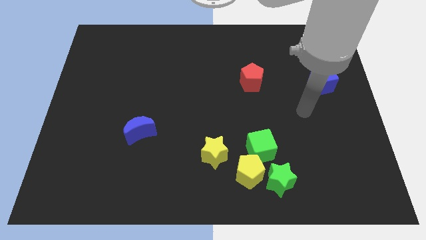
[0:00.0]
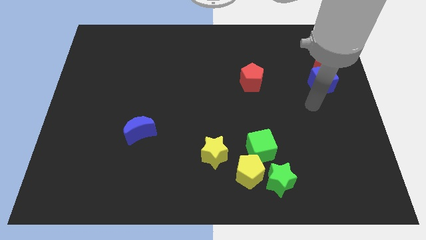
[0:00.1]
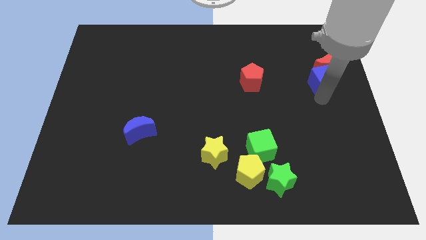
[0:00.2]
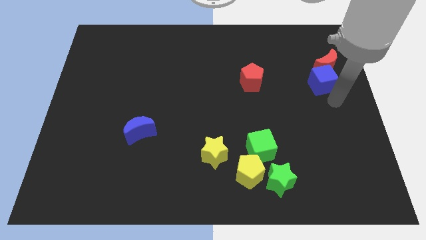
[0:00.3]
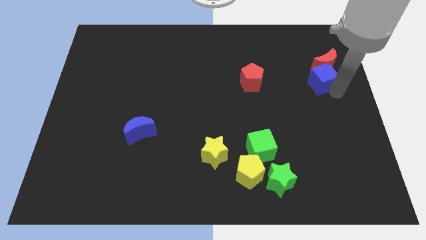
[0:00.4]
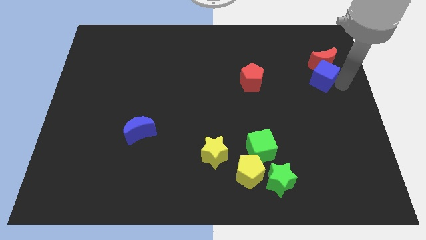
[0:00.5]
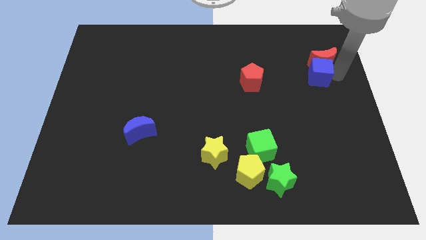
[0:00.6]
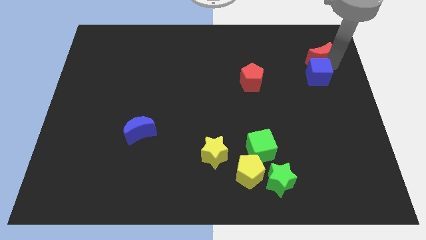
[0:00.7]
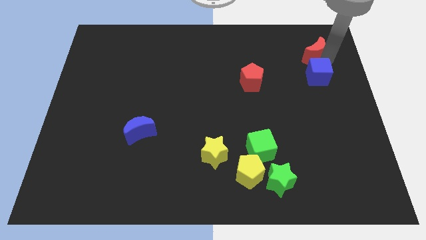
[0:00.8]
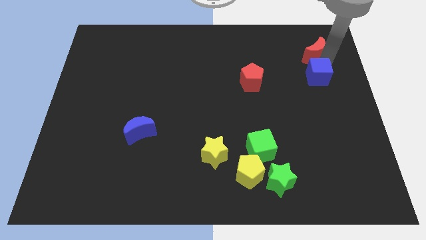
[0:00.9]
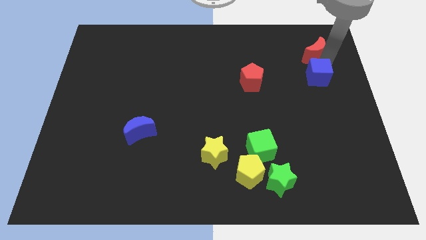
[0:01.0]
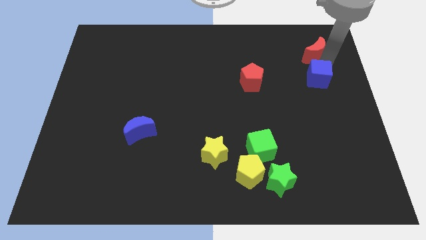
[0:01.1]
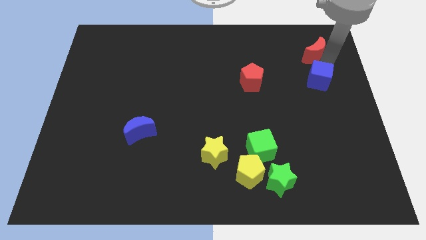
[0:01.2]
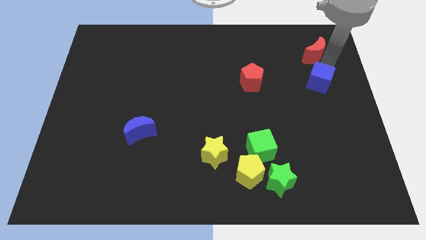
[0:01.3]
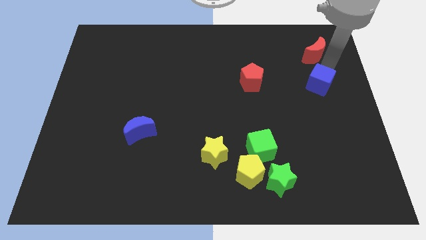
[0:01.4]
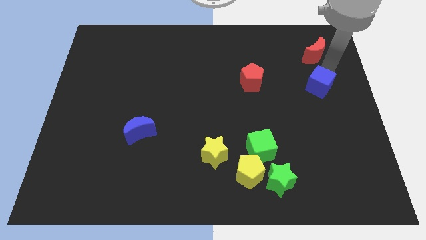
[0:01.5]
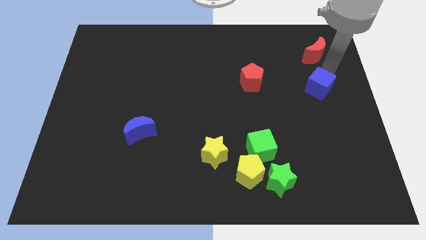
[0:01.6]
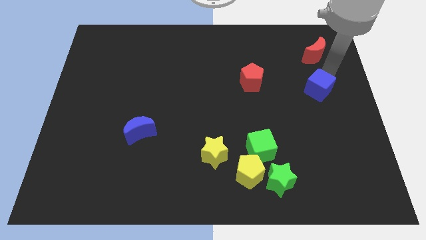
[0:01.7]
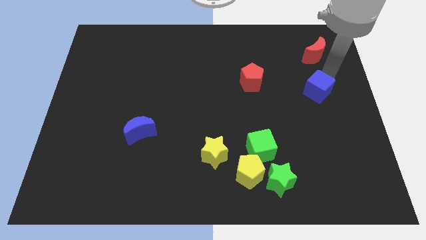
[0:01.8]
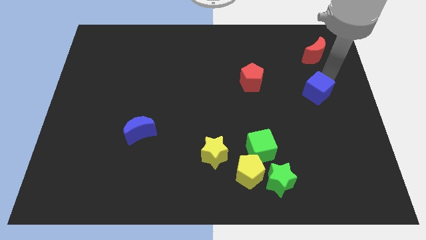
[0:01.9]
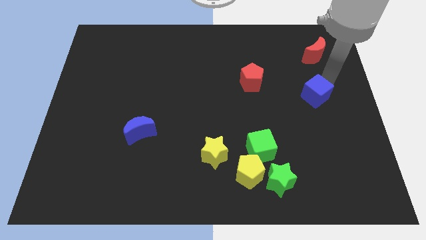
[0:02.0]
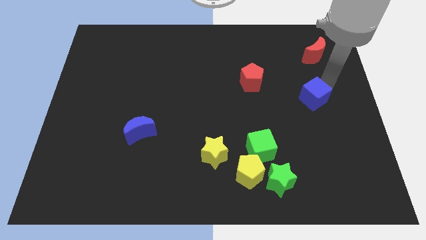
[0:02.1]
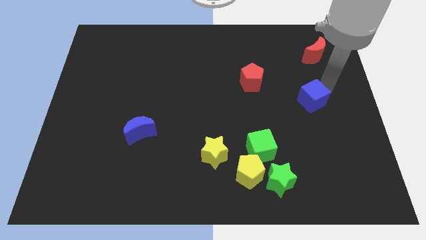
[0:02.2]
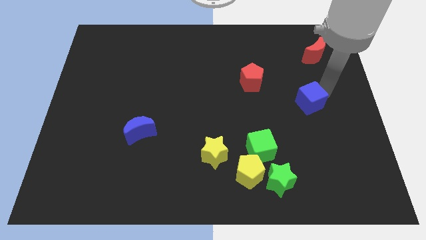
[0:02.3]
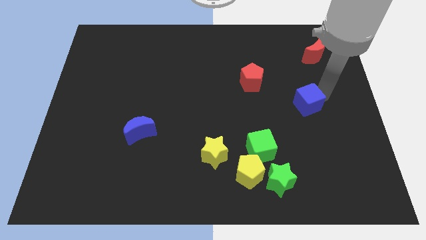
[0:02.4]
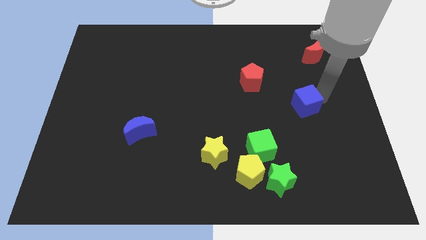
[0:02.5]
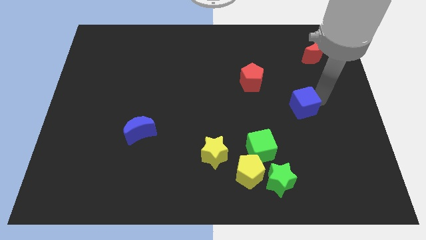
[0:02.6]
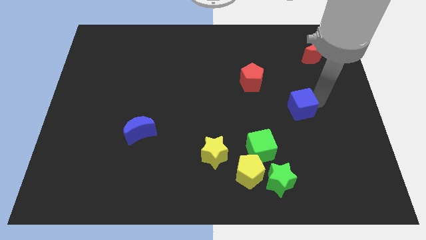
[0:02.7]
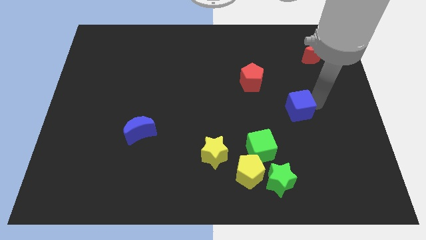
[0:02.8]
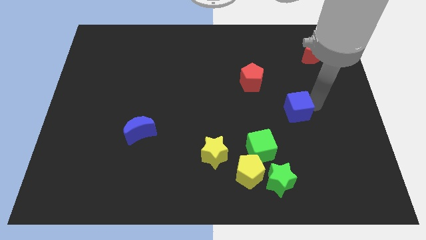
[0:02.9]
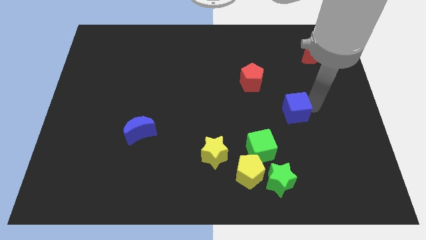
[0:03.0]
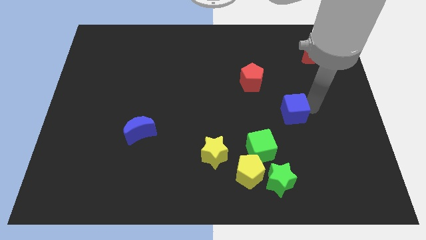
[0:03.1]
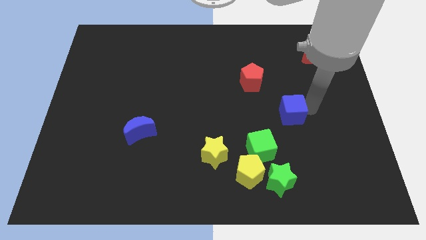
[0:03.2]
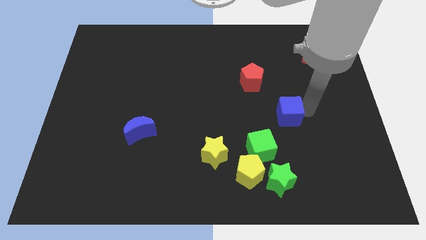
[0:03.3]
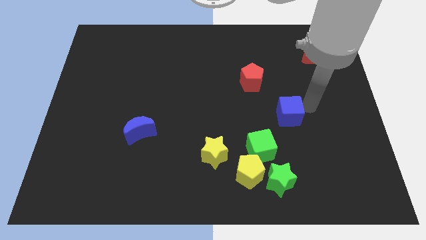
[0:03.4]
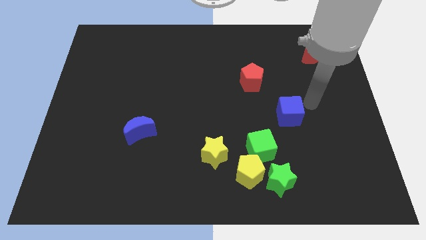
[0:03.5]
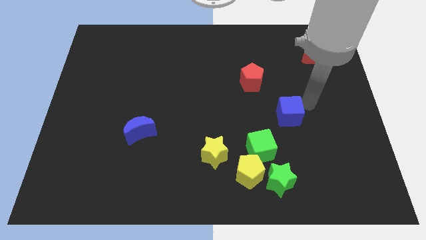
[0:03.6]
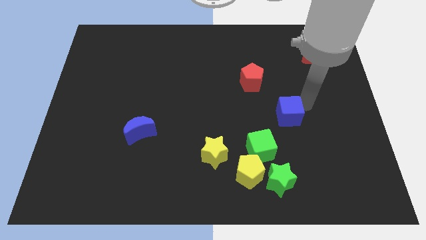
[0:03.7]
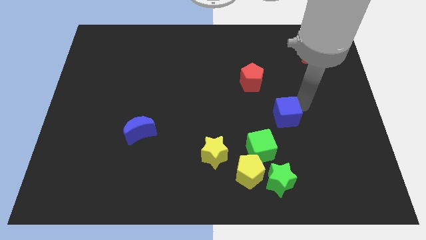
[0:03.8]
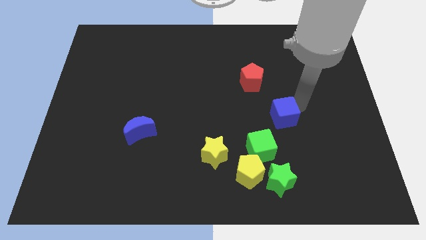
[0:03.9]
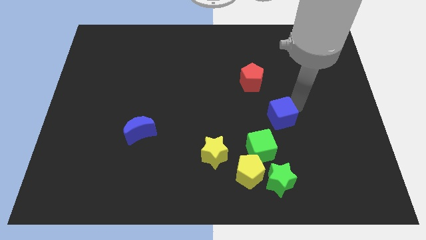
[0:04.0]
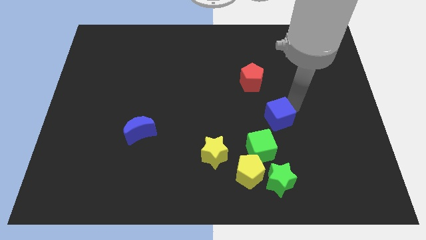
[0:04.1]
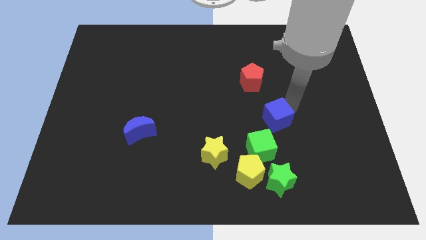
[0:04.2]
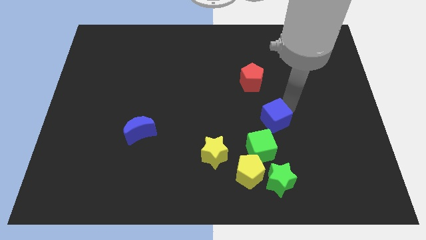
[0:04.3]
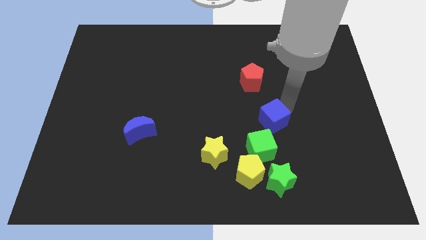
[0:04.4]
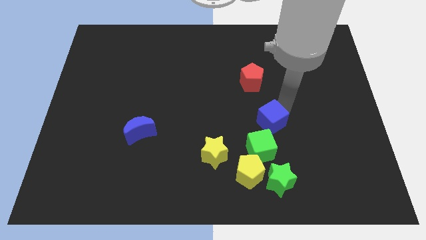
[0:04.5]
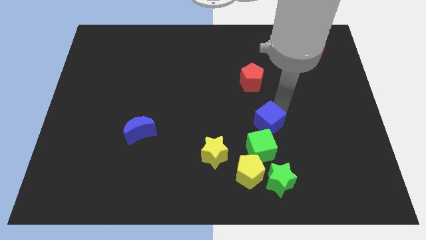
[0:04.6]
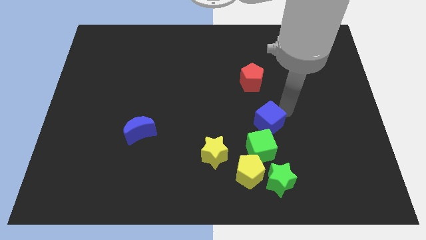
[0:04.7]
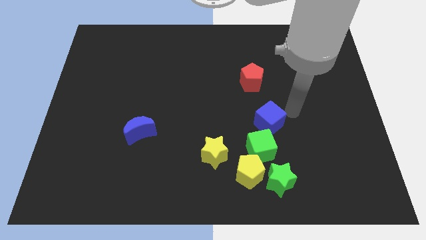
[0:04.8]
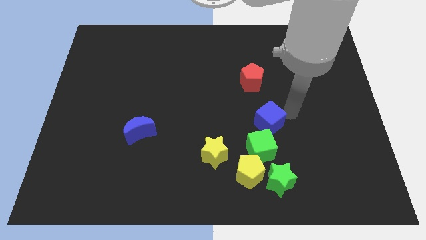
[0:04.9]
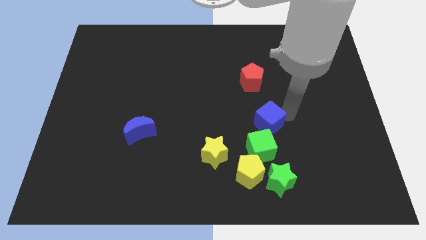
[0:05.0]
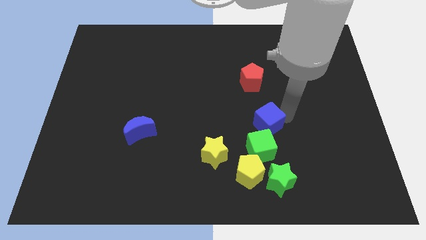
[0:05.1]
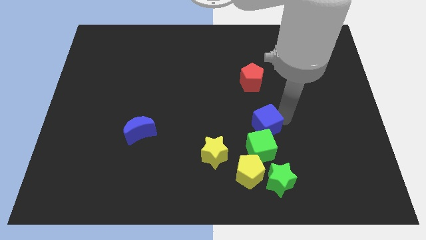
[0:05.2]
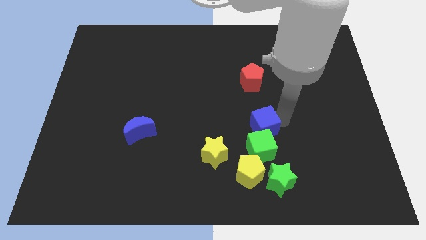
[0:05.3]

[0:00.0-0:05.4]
slide the blue cube downwards and left diagonally

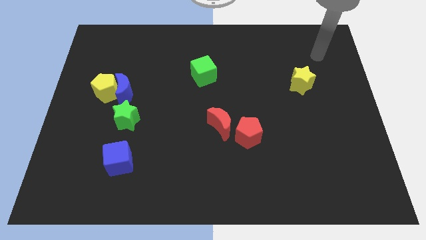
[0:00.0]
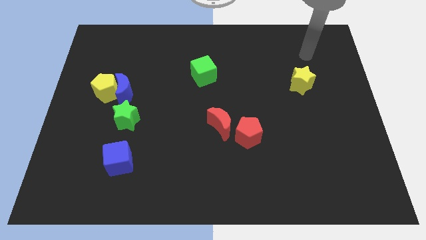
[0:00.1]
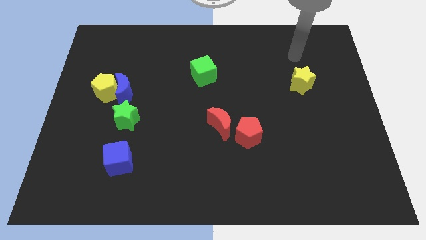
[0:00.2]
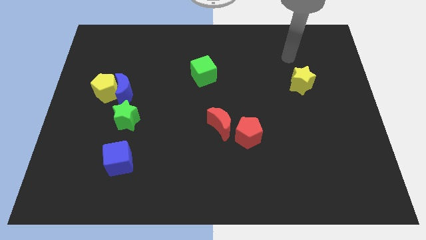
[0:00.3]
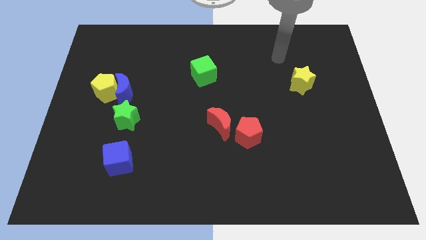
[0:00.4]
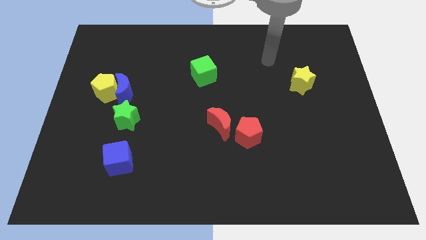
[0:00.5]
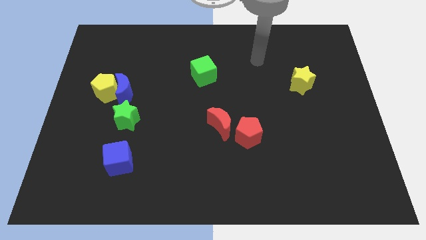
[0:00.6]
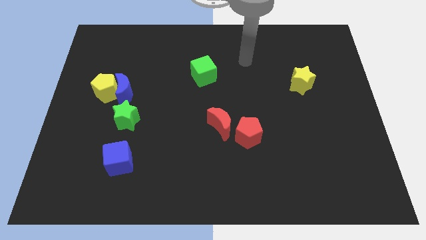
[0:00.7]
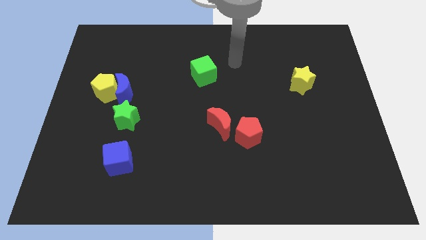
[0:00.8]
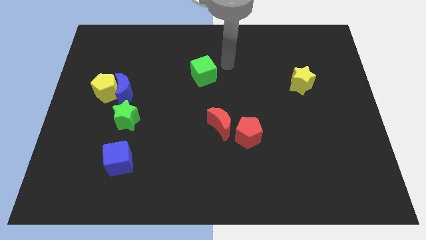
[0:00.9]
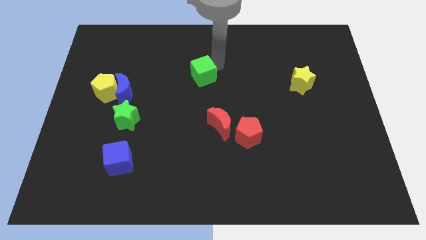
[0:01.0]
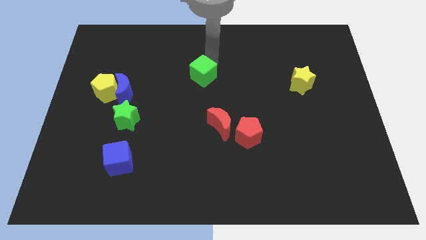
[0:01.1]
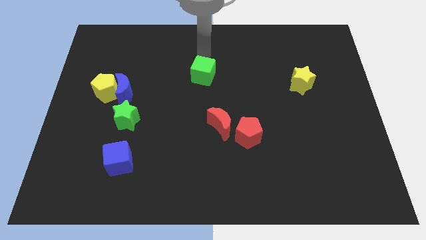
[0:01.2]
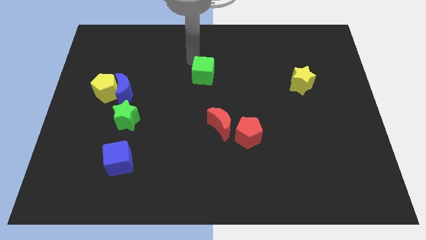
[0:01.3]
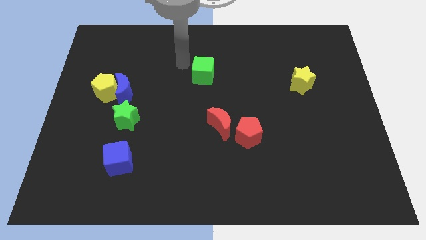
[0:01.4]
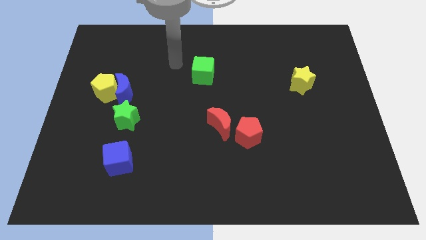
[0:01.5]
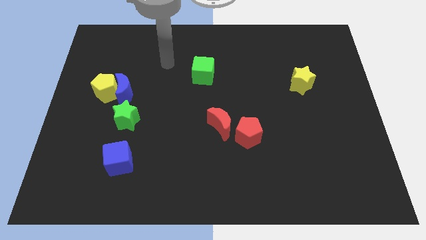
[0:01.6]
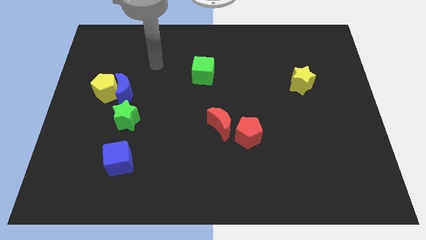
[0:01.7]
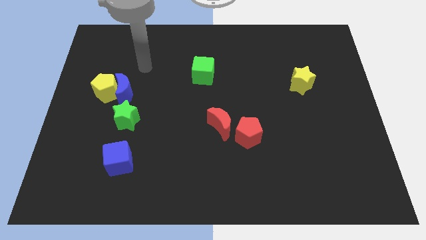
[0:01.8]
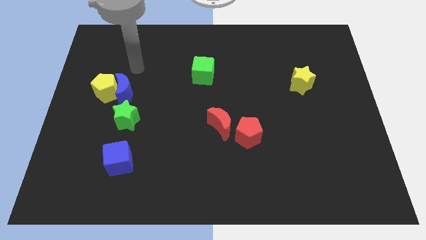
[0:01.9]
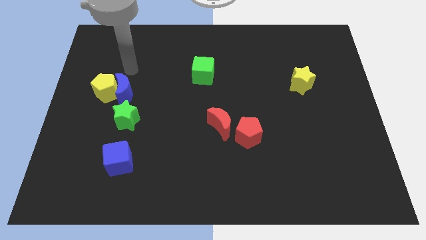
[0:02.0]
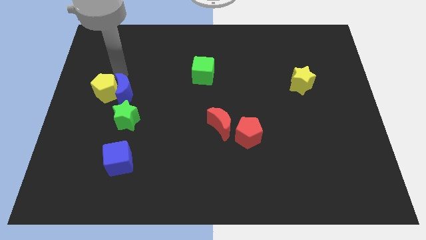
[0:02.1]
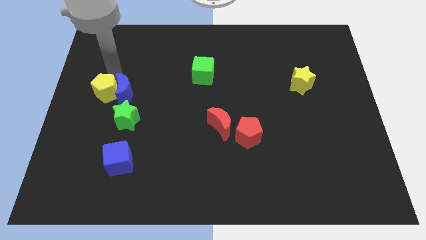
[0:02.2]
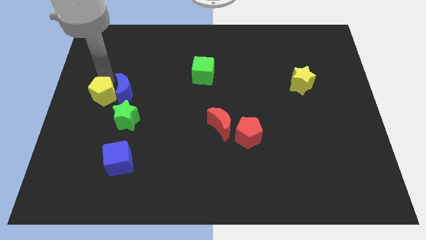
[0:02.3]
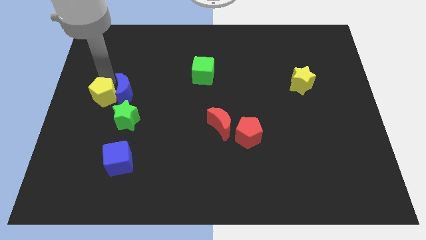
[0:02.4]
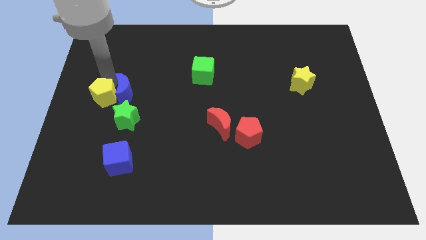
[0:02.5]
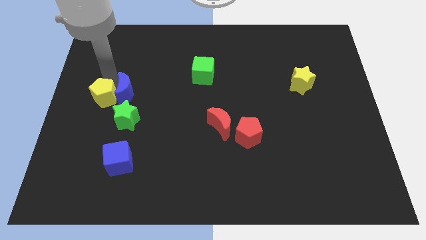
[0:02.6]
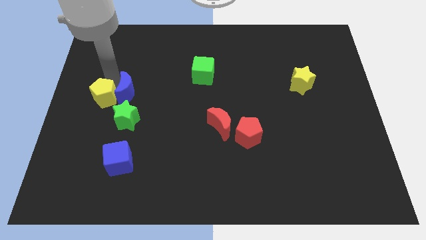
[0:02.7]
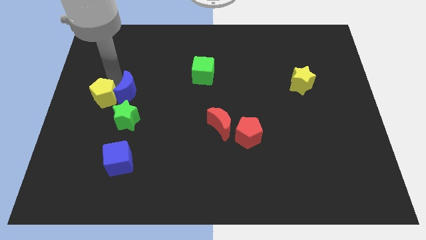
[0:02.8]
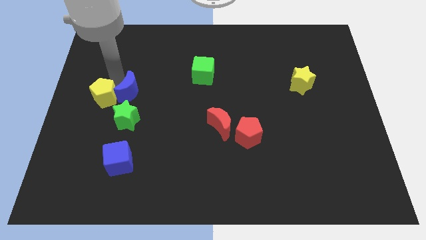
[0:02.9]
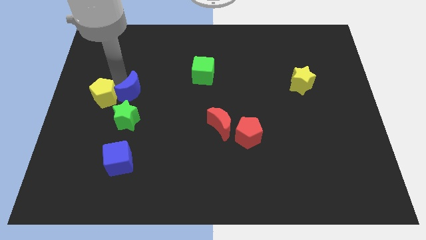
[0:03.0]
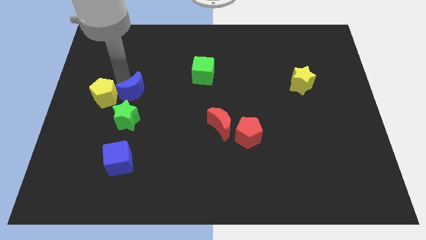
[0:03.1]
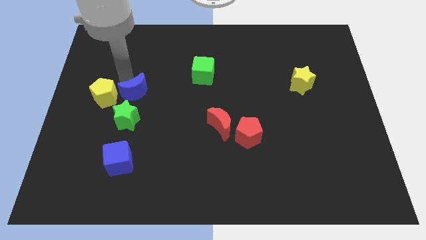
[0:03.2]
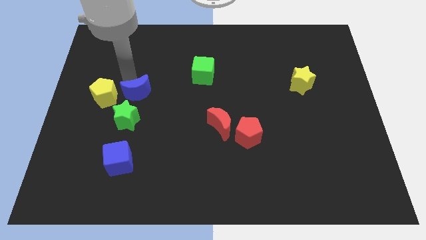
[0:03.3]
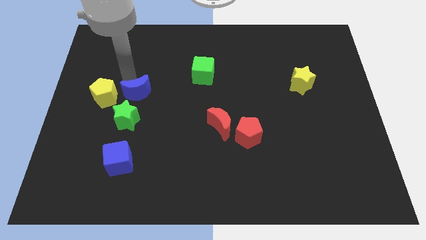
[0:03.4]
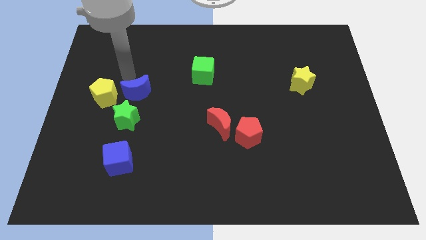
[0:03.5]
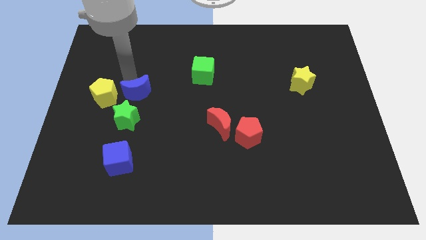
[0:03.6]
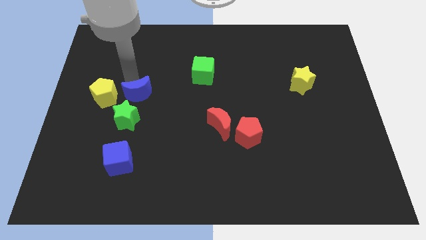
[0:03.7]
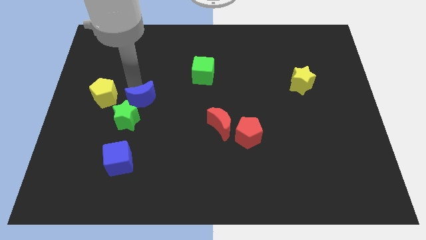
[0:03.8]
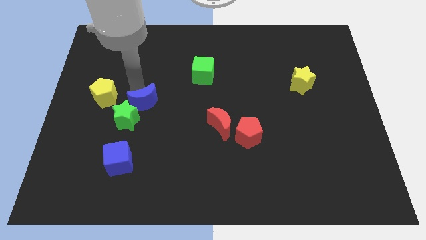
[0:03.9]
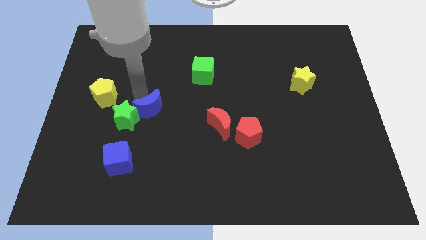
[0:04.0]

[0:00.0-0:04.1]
move the blue moon down and right slightly
